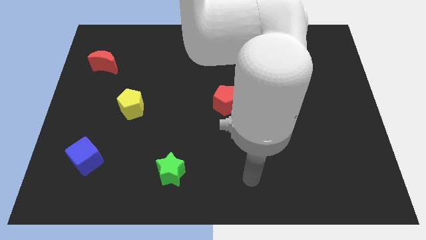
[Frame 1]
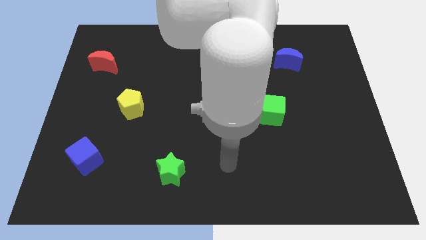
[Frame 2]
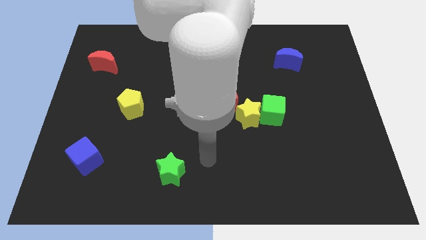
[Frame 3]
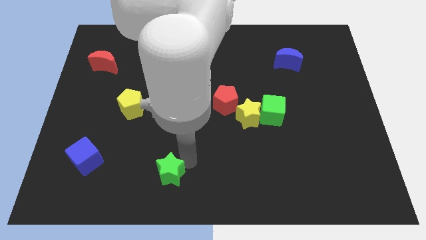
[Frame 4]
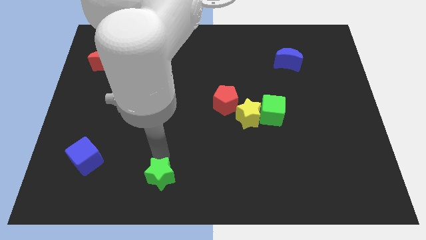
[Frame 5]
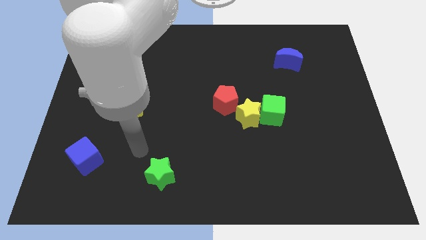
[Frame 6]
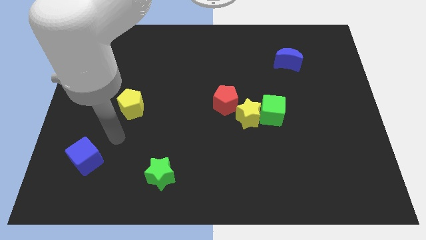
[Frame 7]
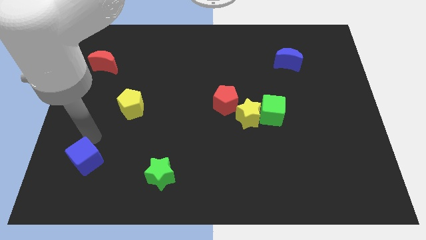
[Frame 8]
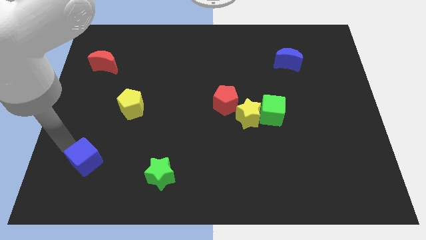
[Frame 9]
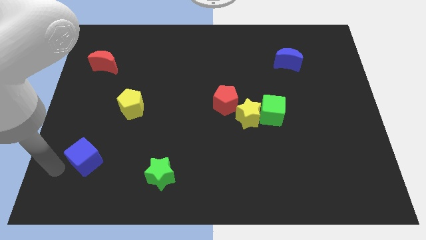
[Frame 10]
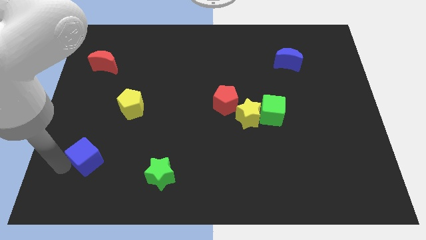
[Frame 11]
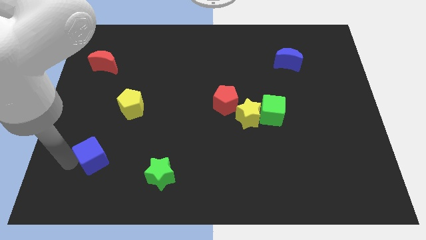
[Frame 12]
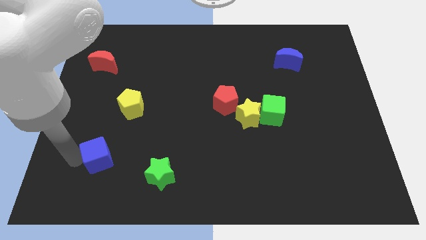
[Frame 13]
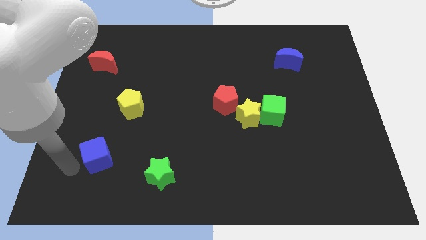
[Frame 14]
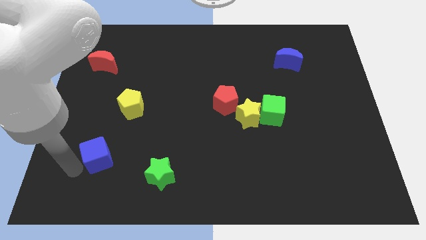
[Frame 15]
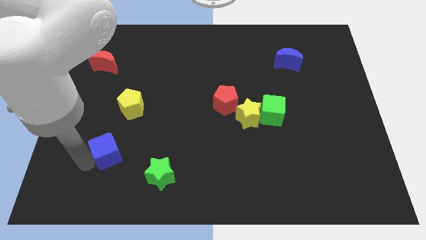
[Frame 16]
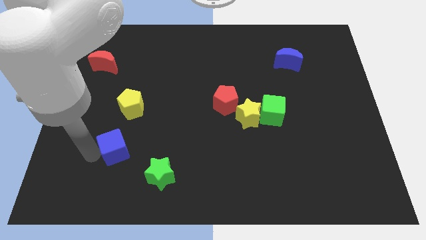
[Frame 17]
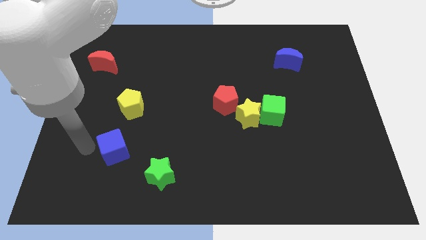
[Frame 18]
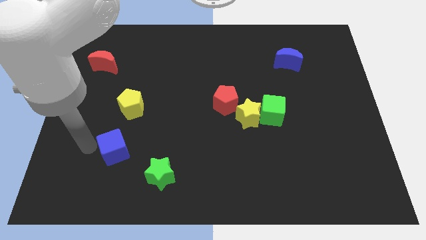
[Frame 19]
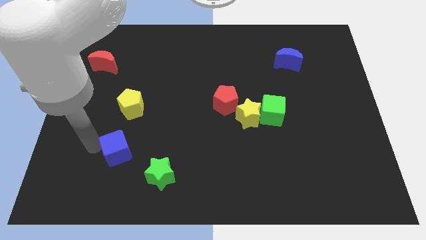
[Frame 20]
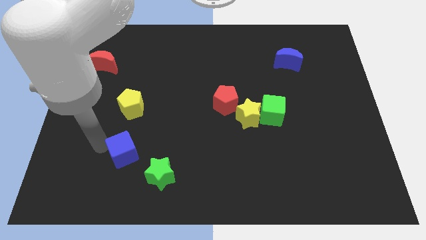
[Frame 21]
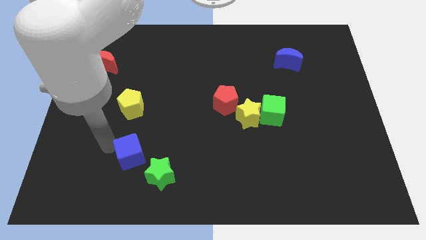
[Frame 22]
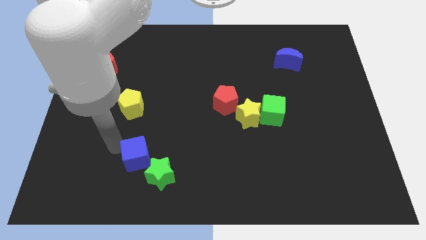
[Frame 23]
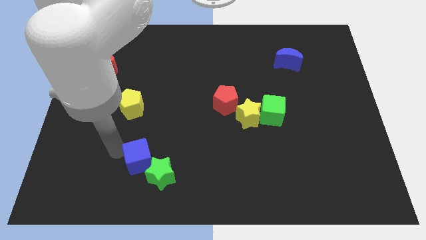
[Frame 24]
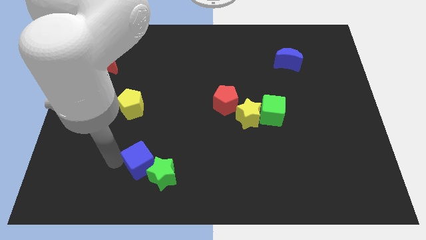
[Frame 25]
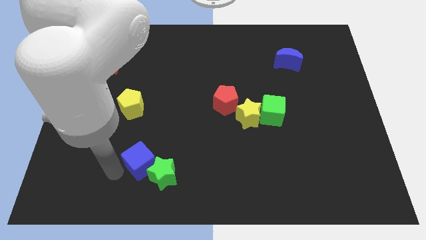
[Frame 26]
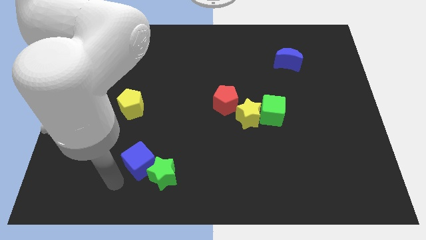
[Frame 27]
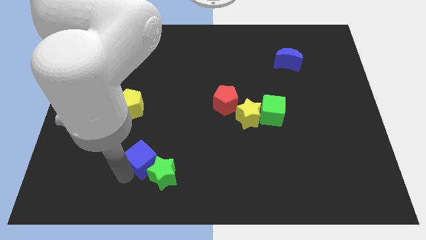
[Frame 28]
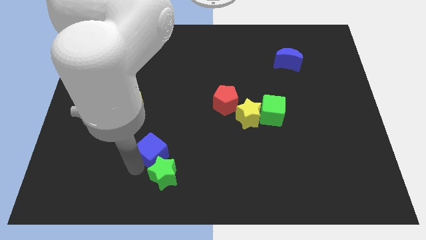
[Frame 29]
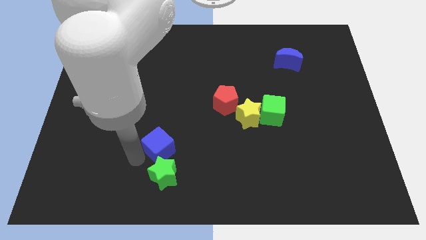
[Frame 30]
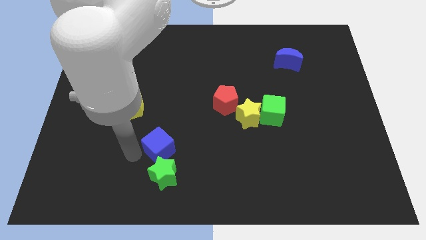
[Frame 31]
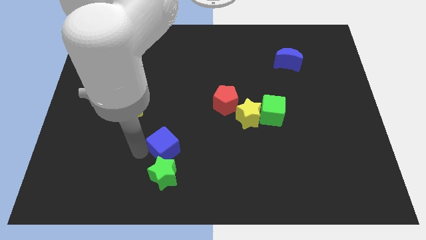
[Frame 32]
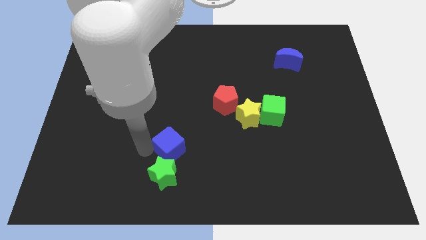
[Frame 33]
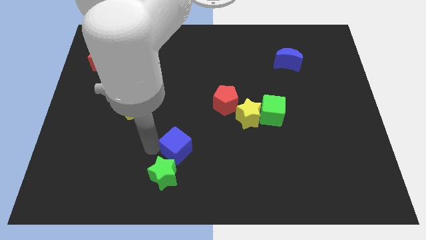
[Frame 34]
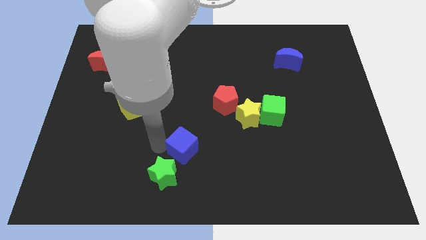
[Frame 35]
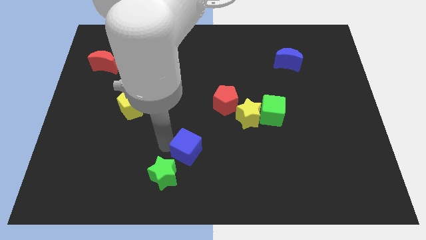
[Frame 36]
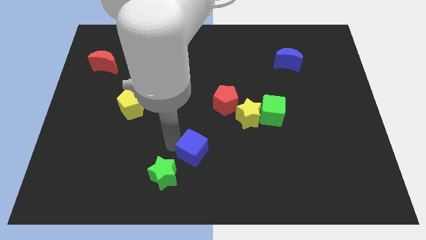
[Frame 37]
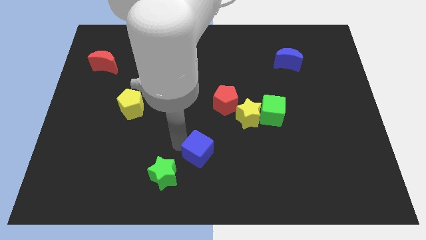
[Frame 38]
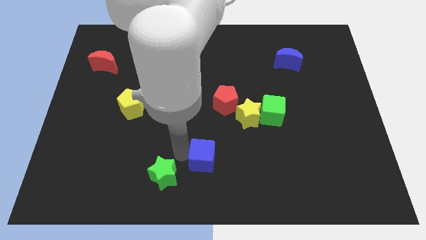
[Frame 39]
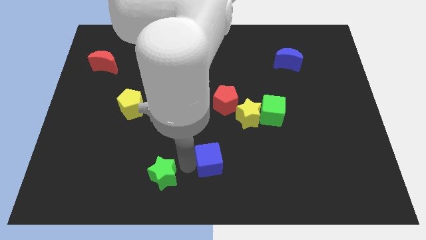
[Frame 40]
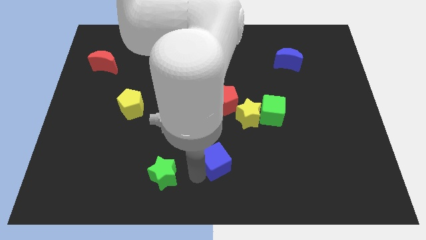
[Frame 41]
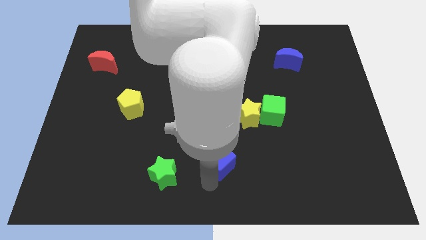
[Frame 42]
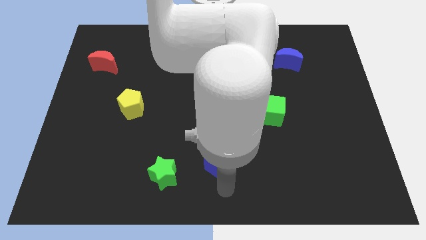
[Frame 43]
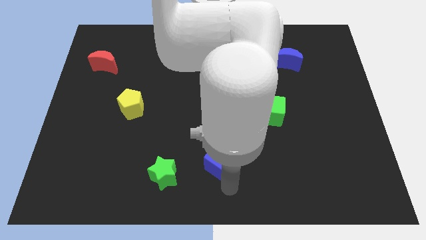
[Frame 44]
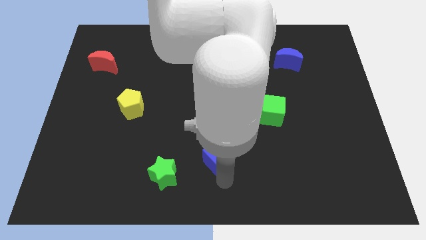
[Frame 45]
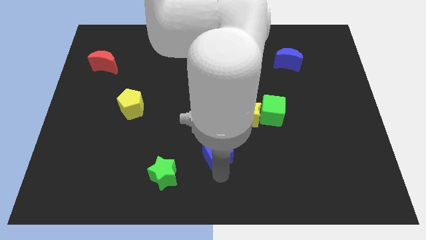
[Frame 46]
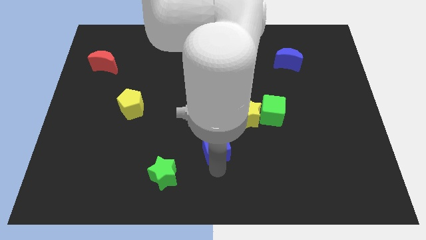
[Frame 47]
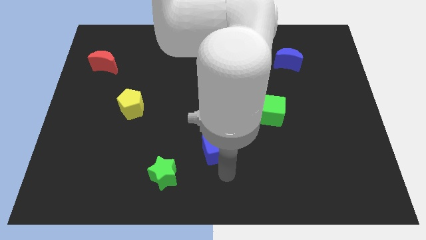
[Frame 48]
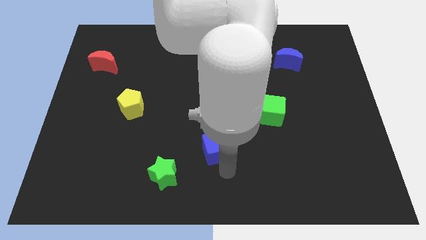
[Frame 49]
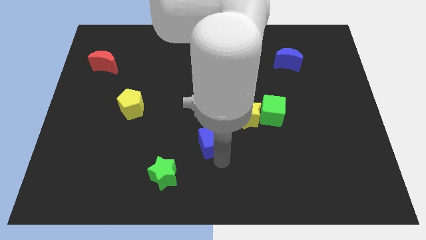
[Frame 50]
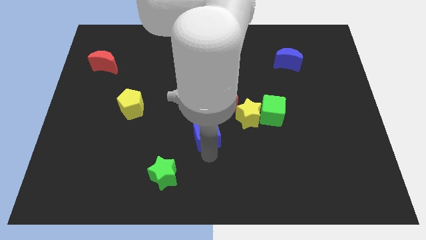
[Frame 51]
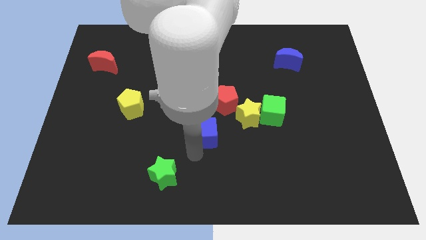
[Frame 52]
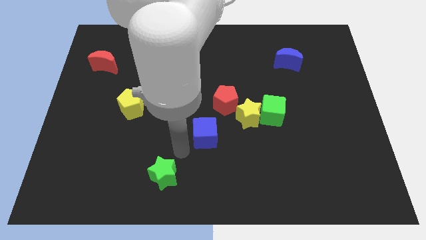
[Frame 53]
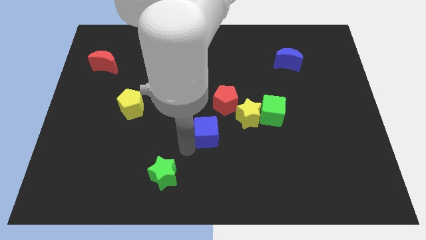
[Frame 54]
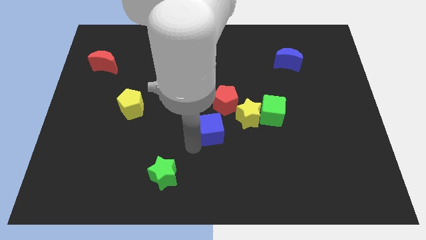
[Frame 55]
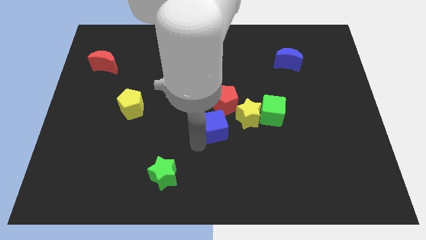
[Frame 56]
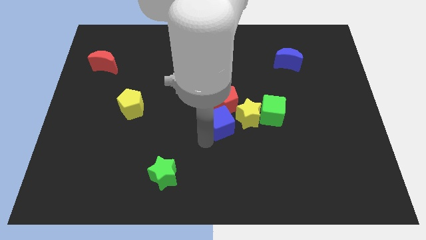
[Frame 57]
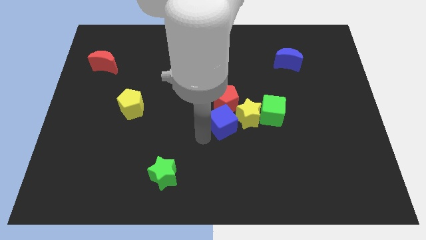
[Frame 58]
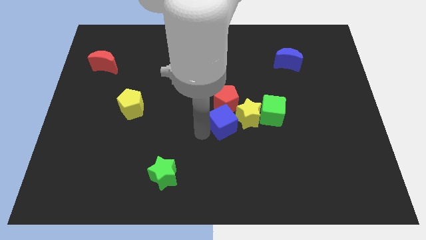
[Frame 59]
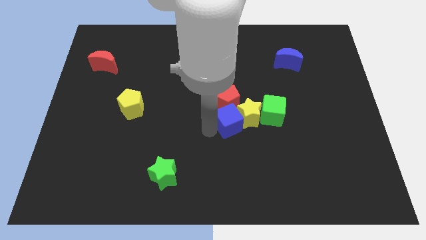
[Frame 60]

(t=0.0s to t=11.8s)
put the blue cube close to the yellow star

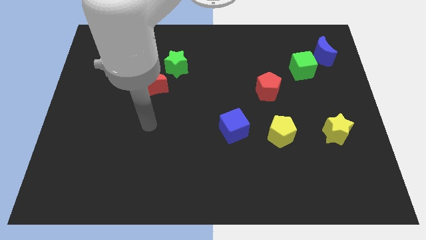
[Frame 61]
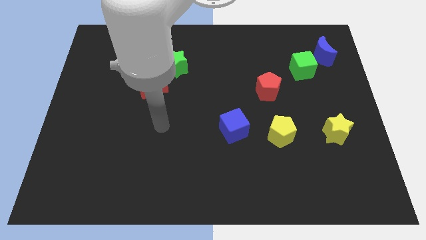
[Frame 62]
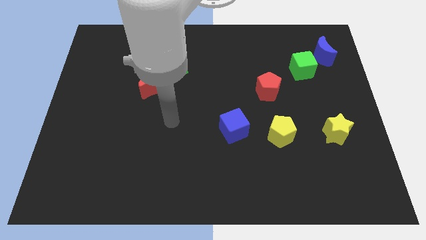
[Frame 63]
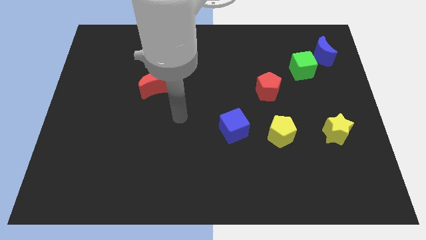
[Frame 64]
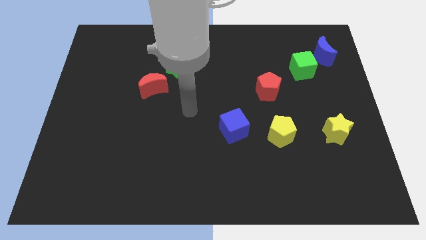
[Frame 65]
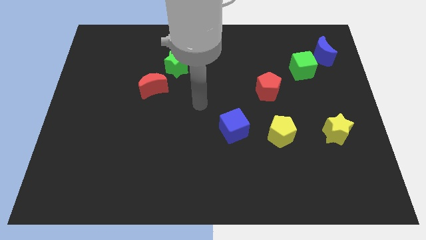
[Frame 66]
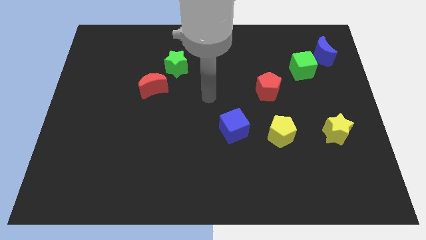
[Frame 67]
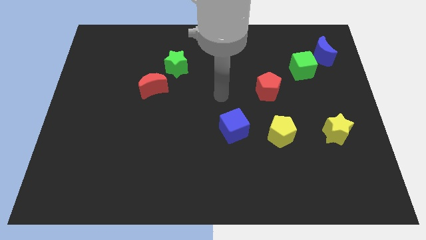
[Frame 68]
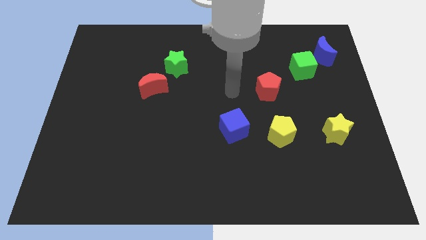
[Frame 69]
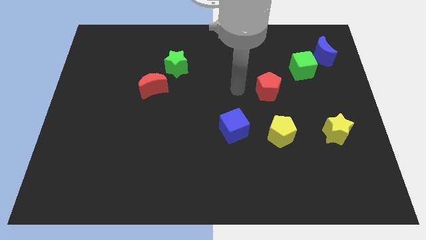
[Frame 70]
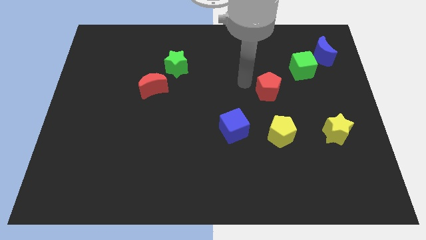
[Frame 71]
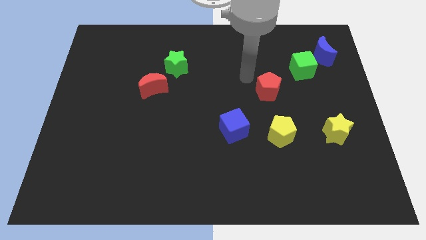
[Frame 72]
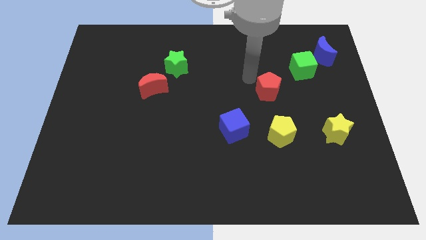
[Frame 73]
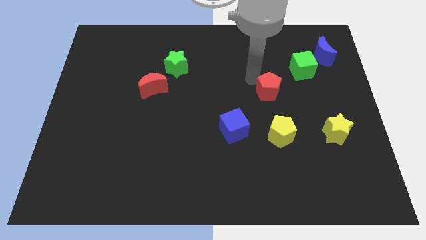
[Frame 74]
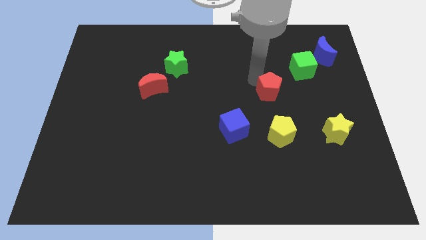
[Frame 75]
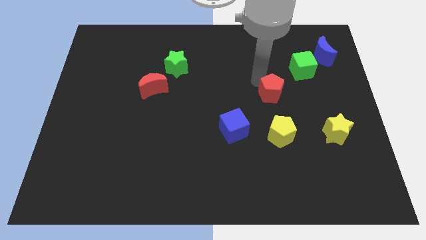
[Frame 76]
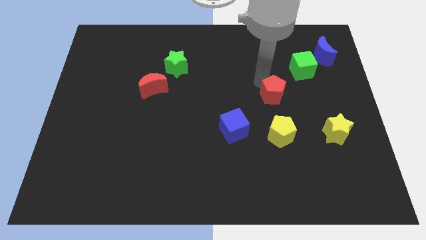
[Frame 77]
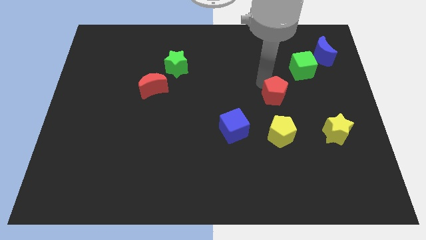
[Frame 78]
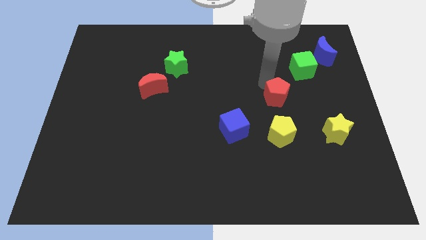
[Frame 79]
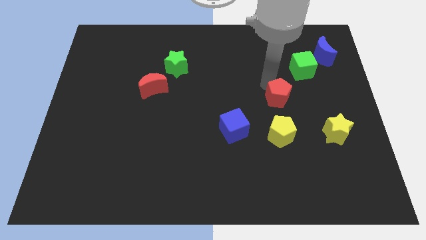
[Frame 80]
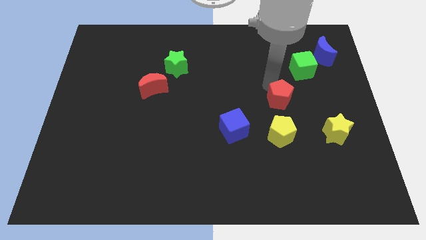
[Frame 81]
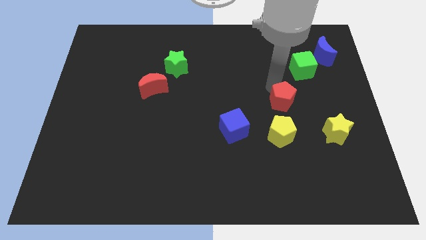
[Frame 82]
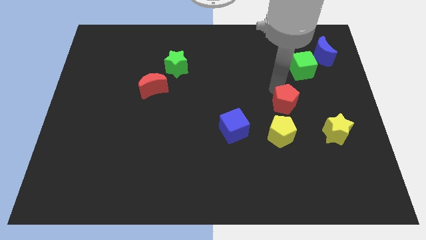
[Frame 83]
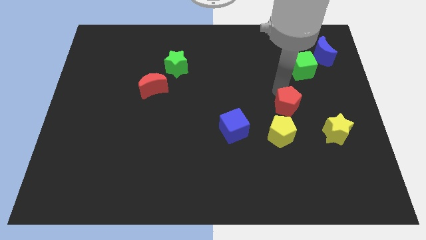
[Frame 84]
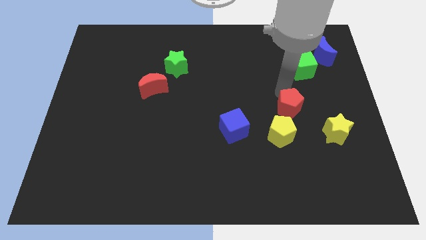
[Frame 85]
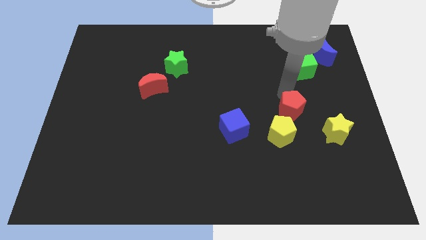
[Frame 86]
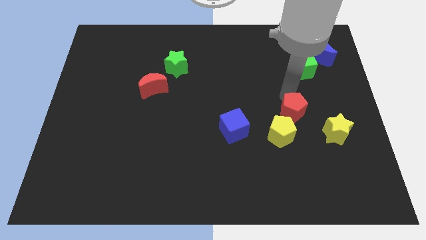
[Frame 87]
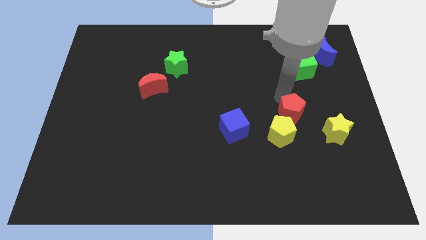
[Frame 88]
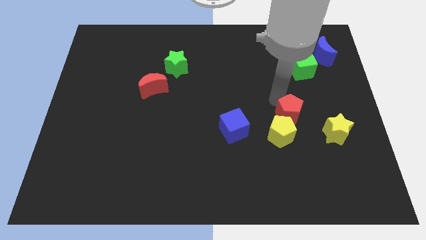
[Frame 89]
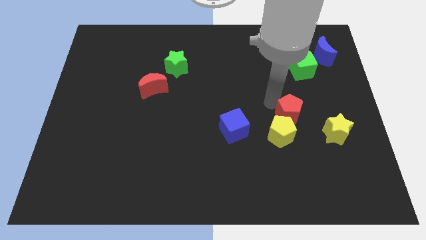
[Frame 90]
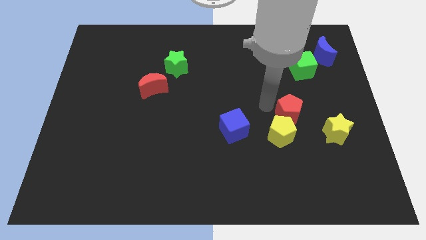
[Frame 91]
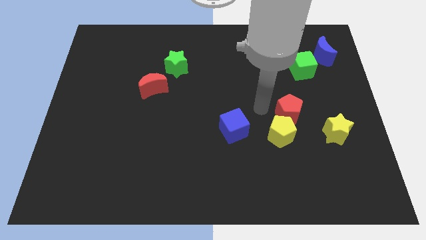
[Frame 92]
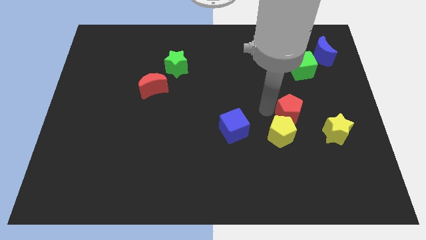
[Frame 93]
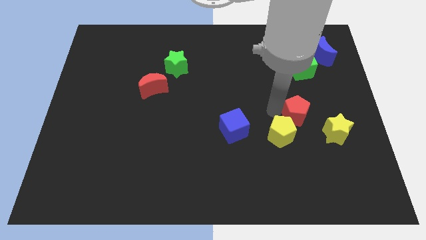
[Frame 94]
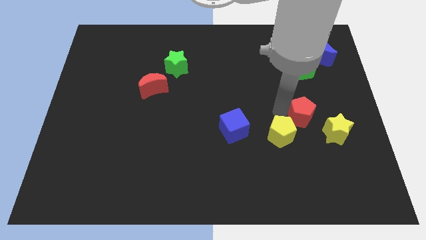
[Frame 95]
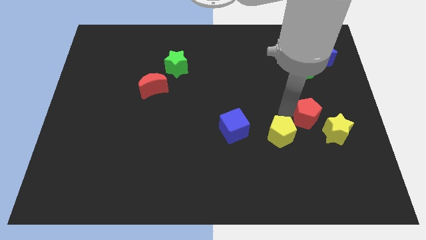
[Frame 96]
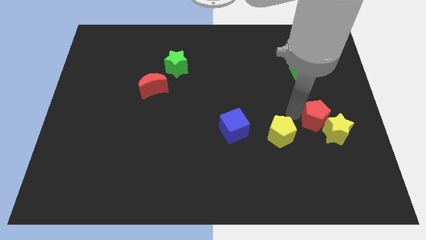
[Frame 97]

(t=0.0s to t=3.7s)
push the red pentagon close to the yellow star
